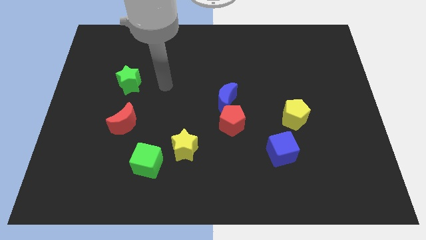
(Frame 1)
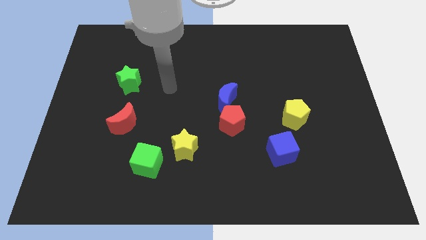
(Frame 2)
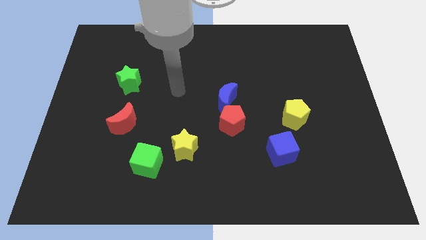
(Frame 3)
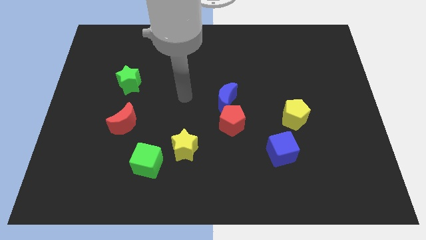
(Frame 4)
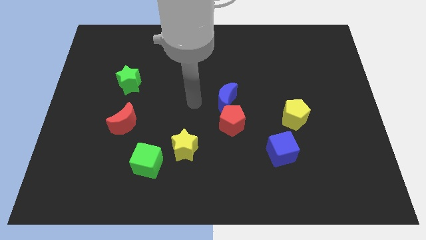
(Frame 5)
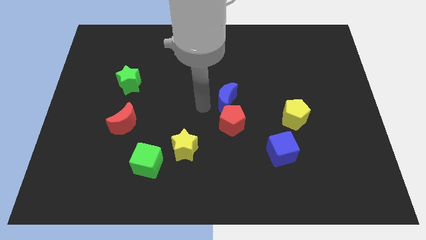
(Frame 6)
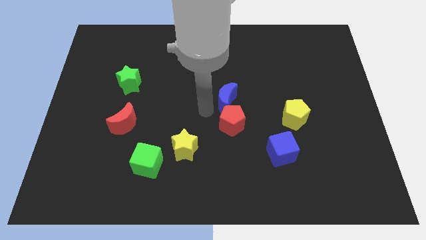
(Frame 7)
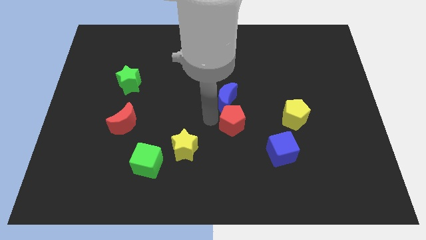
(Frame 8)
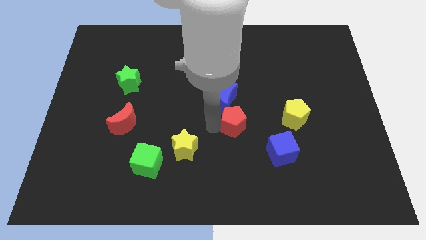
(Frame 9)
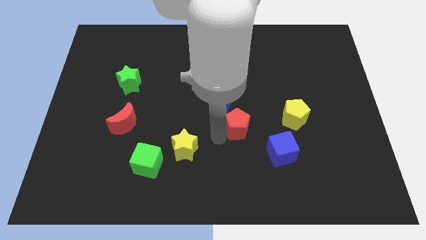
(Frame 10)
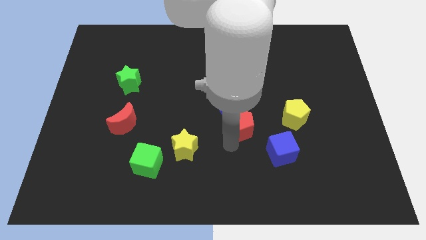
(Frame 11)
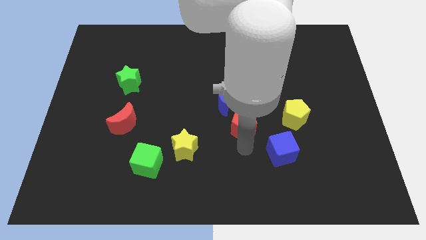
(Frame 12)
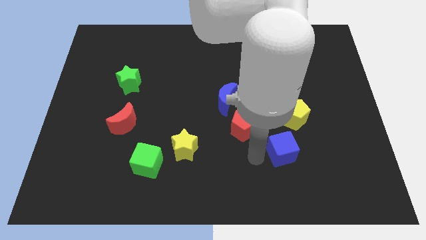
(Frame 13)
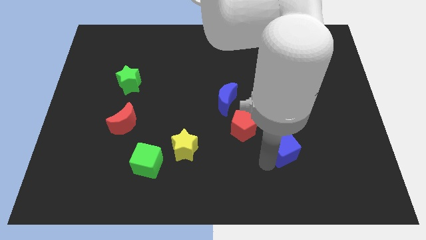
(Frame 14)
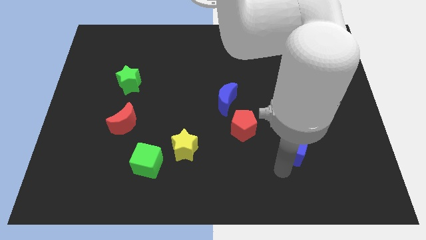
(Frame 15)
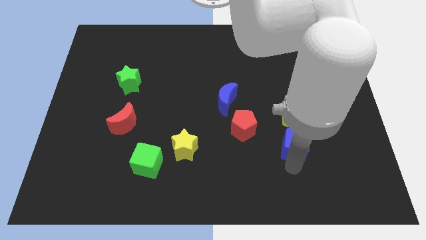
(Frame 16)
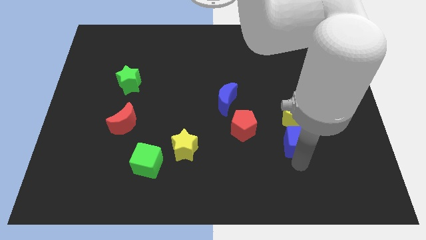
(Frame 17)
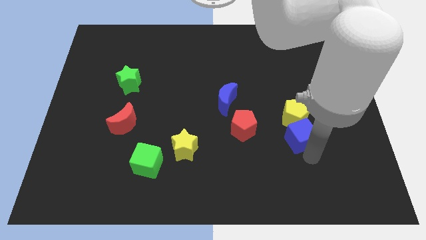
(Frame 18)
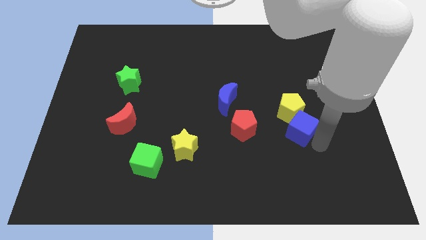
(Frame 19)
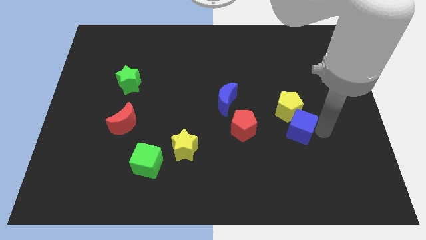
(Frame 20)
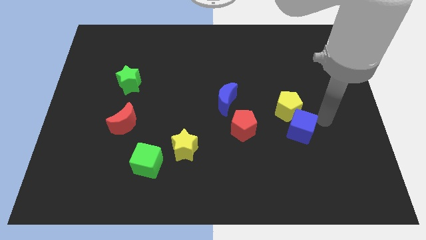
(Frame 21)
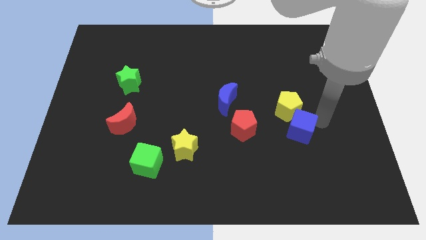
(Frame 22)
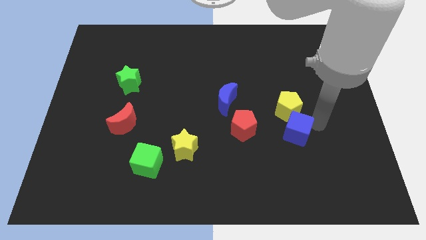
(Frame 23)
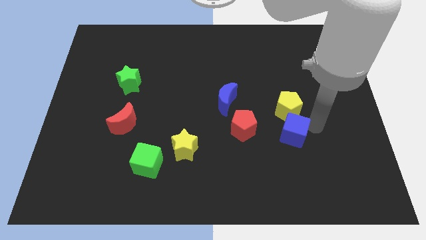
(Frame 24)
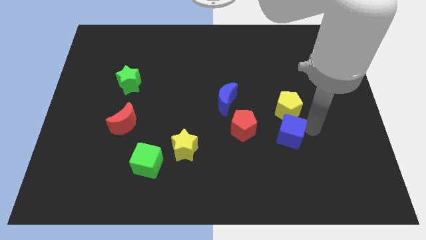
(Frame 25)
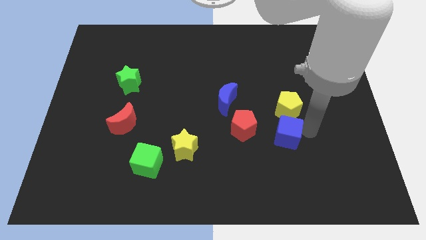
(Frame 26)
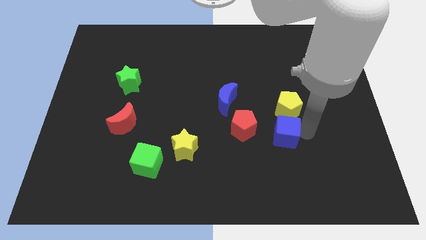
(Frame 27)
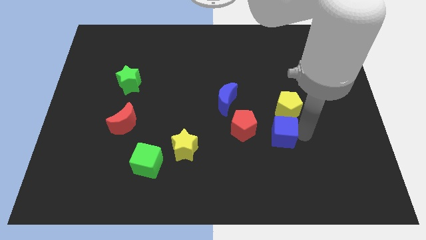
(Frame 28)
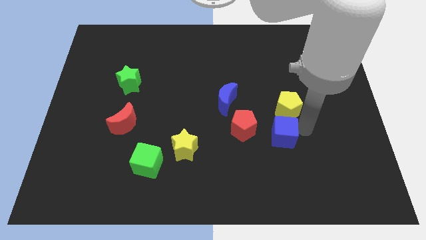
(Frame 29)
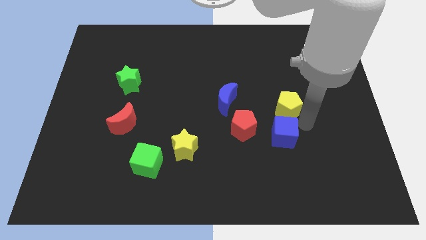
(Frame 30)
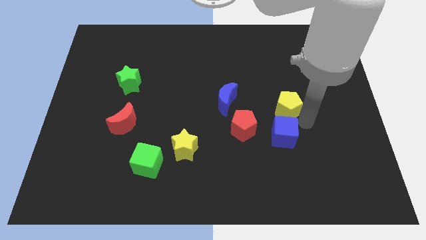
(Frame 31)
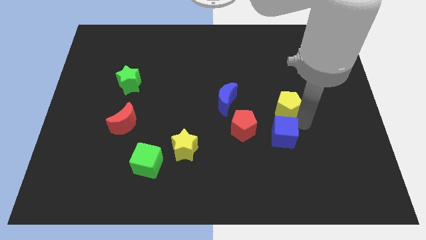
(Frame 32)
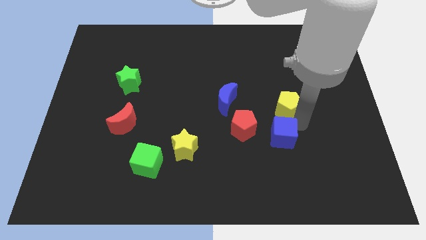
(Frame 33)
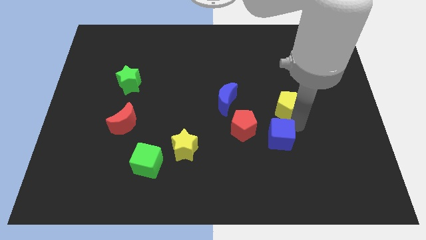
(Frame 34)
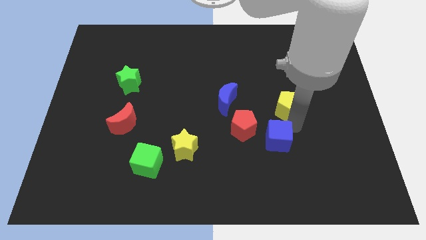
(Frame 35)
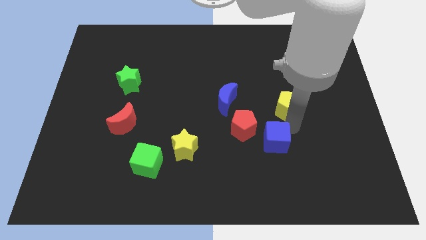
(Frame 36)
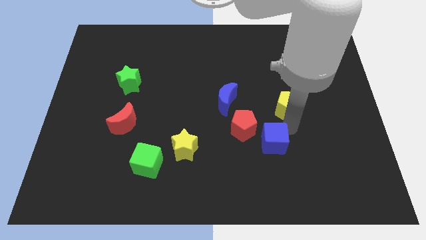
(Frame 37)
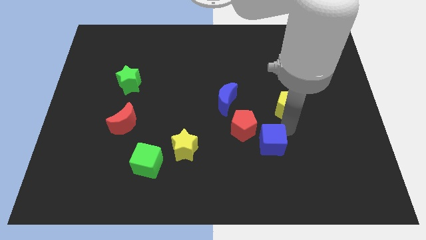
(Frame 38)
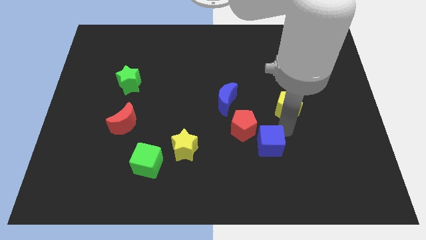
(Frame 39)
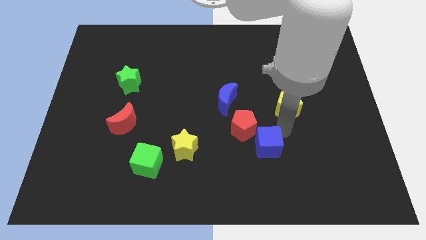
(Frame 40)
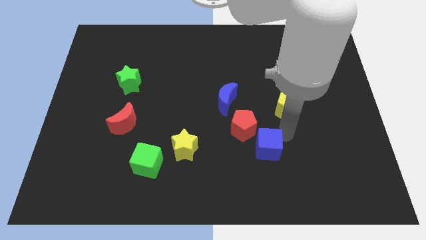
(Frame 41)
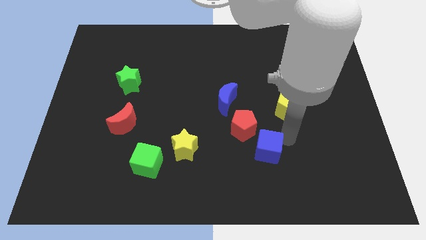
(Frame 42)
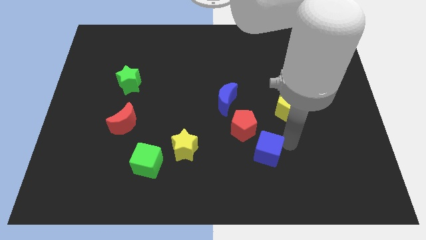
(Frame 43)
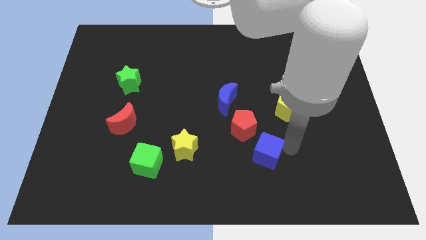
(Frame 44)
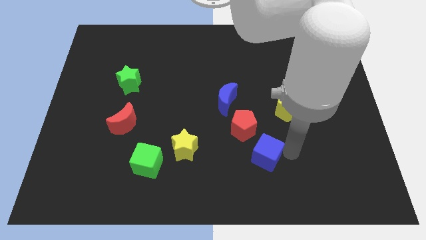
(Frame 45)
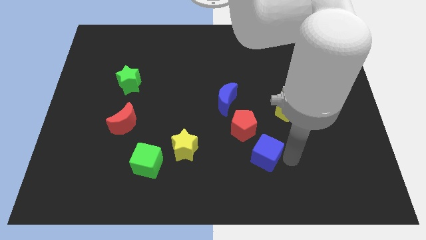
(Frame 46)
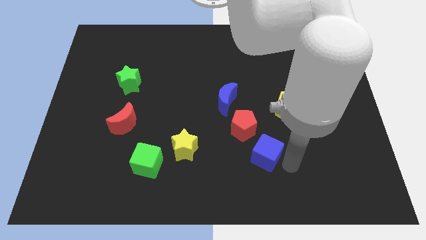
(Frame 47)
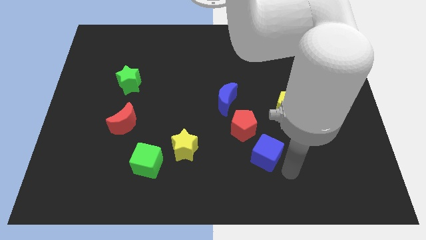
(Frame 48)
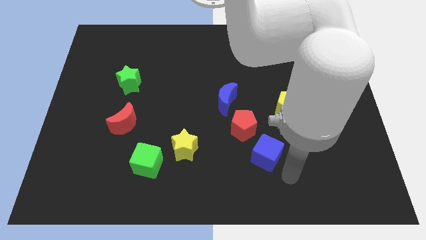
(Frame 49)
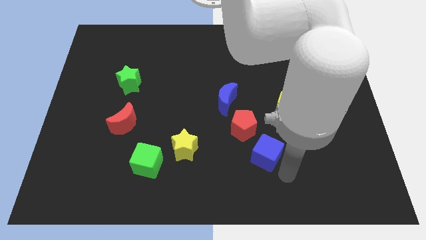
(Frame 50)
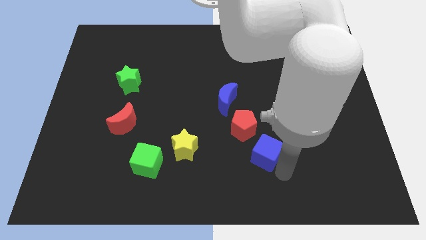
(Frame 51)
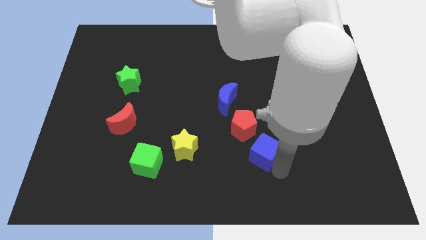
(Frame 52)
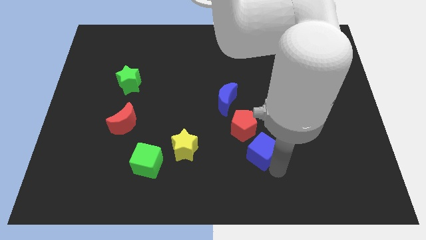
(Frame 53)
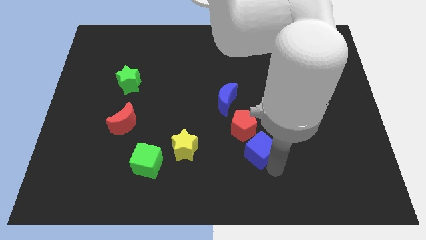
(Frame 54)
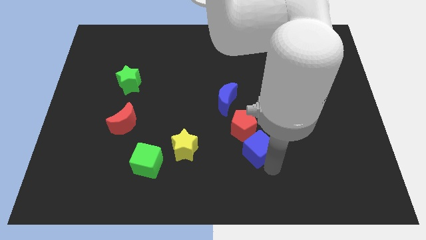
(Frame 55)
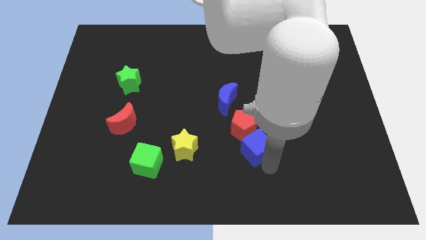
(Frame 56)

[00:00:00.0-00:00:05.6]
move the blue cube to the red pentagon

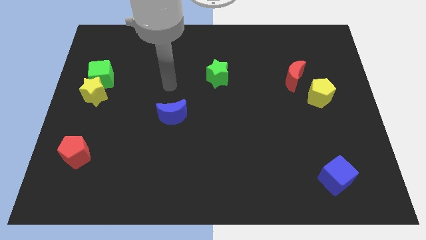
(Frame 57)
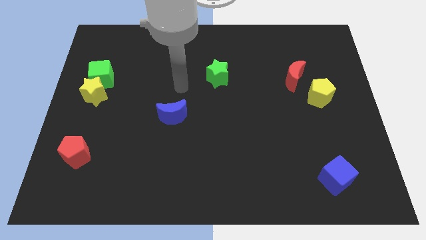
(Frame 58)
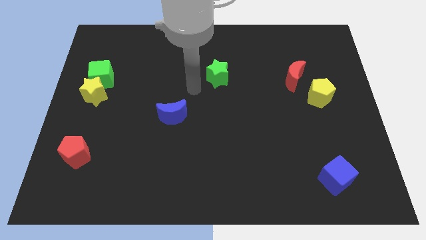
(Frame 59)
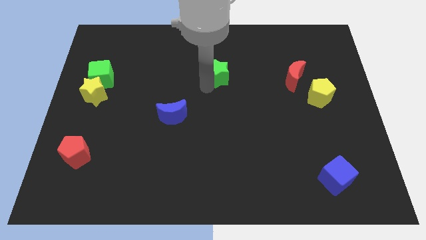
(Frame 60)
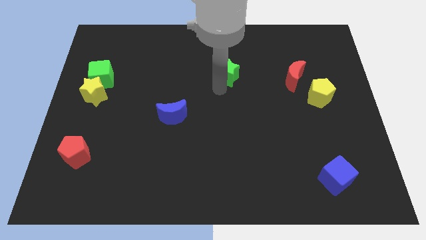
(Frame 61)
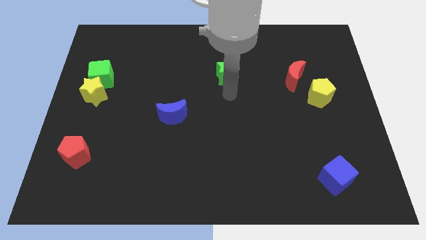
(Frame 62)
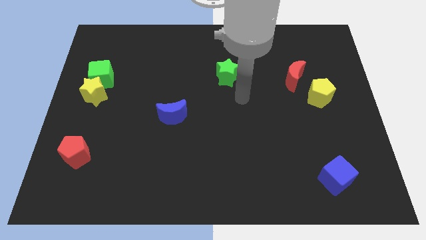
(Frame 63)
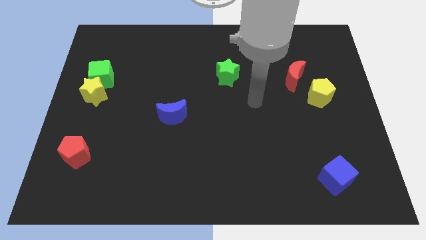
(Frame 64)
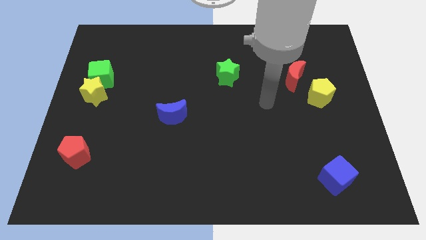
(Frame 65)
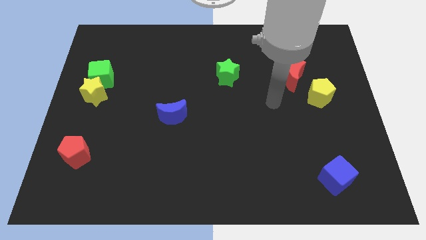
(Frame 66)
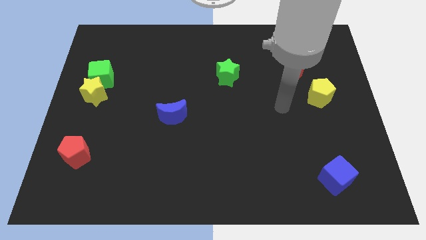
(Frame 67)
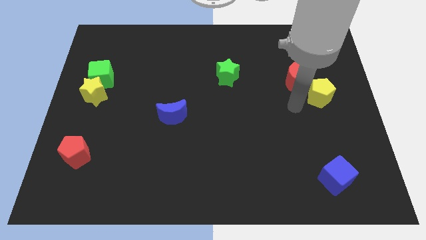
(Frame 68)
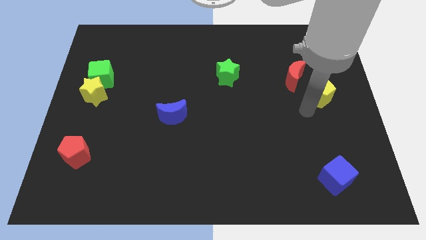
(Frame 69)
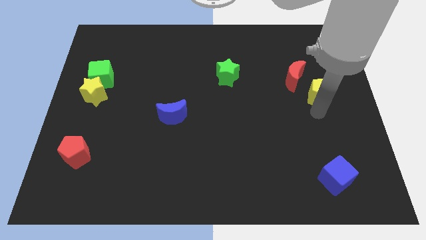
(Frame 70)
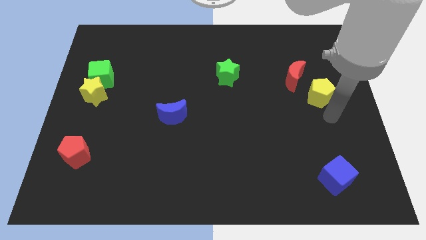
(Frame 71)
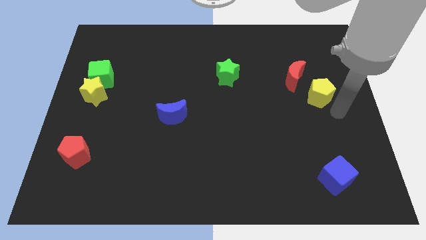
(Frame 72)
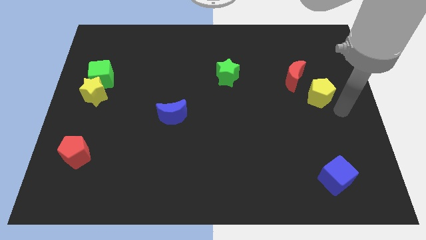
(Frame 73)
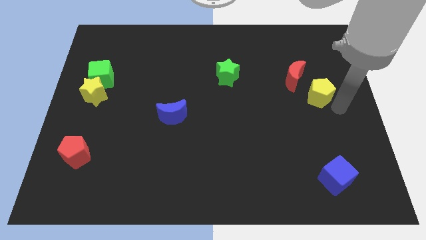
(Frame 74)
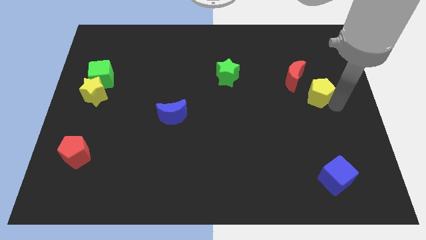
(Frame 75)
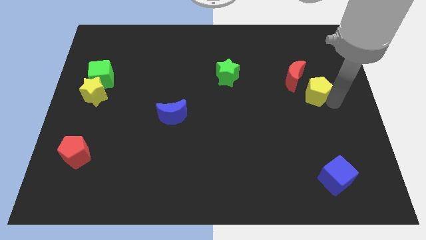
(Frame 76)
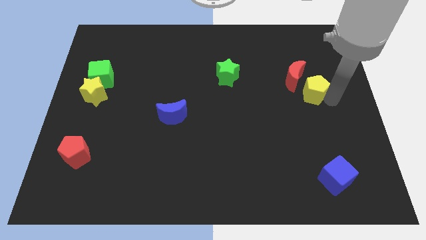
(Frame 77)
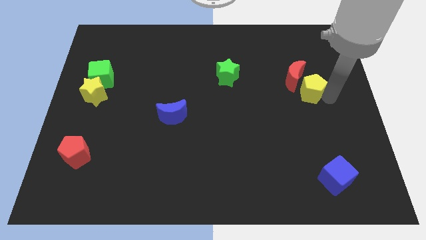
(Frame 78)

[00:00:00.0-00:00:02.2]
move the yellow pentagon close to the red moon

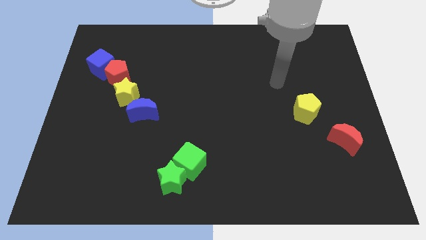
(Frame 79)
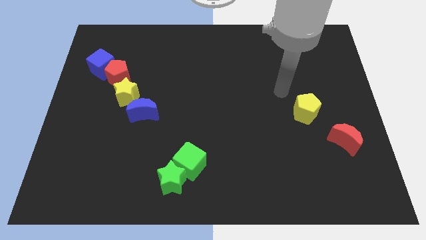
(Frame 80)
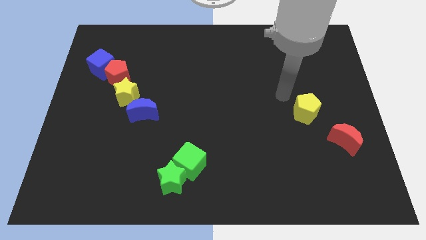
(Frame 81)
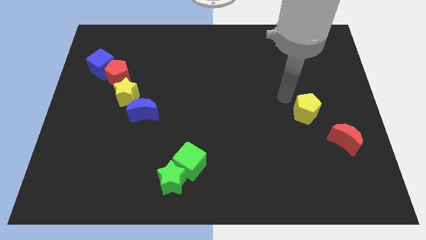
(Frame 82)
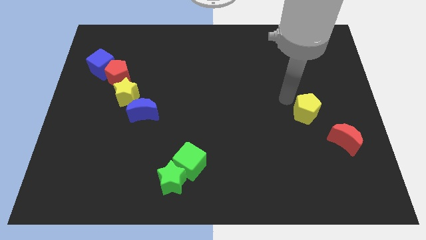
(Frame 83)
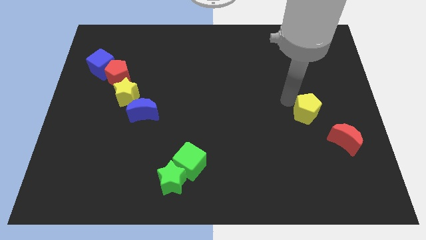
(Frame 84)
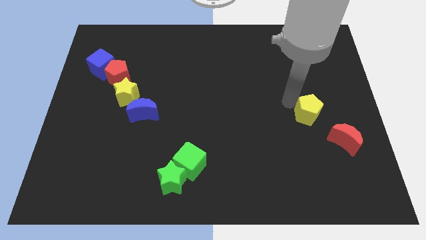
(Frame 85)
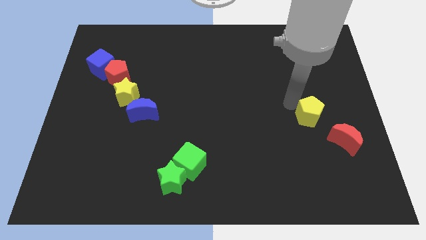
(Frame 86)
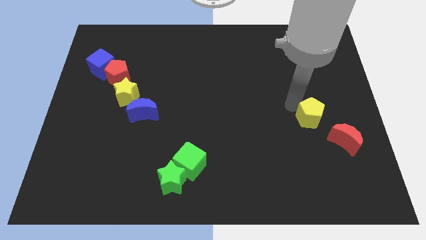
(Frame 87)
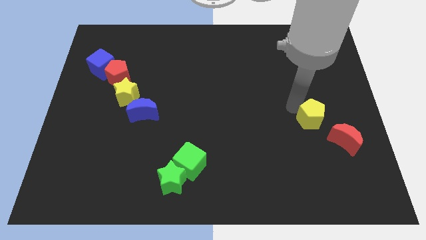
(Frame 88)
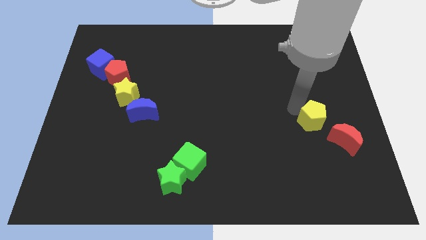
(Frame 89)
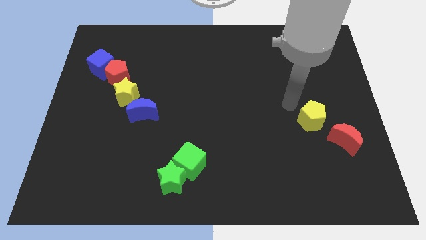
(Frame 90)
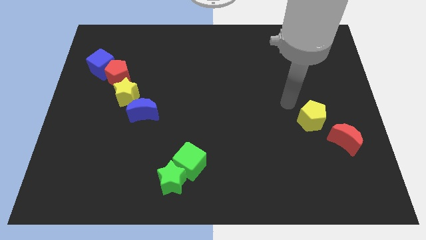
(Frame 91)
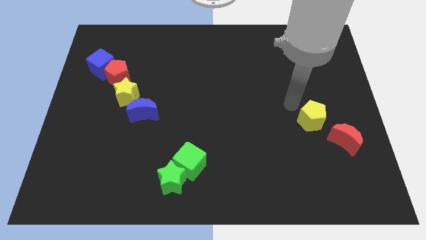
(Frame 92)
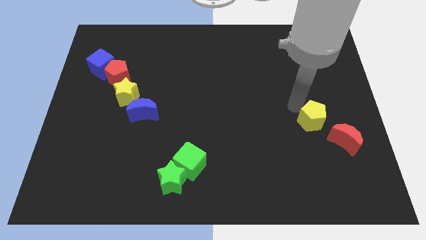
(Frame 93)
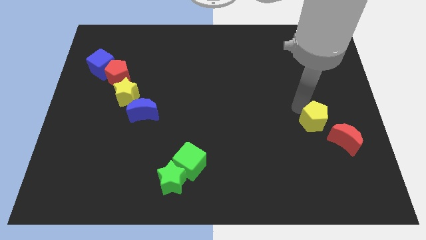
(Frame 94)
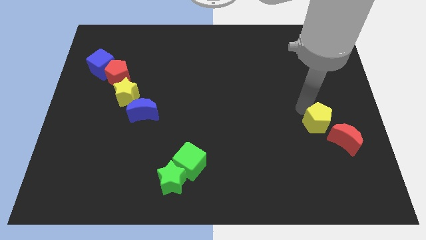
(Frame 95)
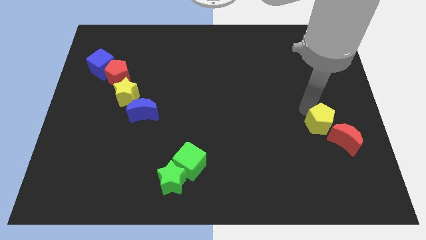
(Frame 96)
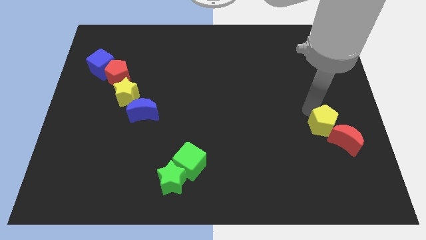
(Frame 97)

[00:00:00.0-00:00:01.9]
move the yellow pentagon next to the red moon
